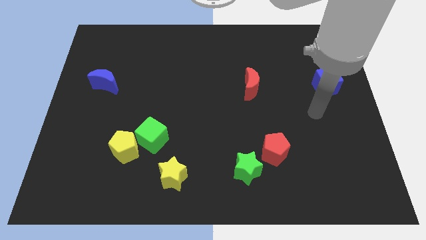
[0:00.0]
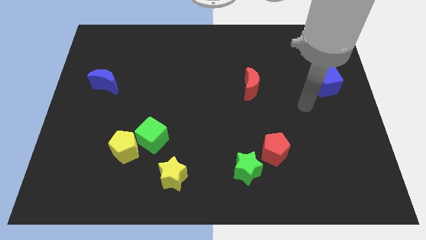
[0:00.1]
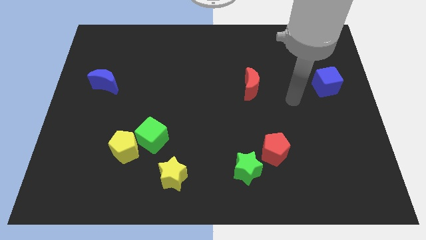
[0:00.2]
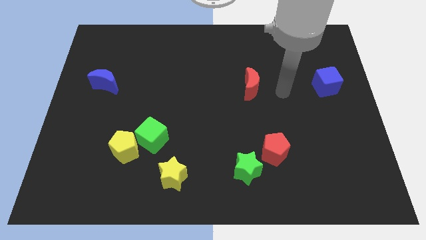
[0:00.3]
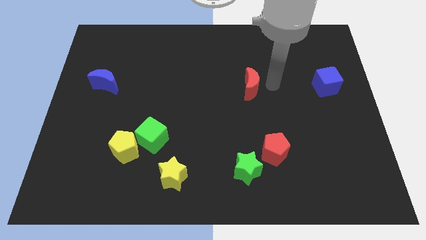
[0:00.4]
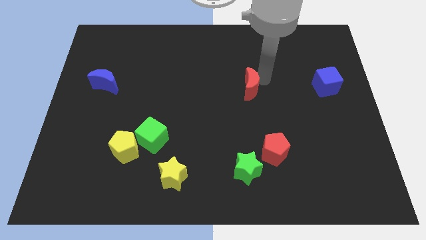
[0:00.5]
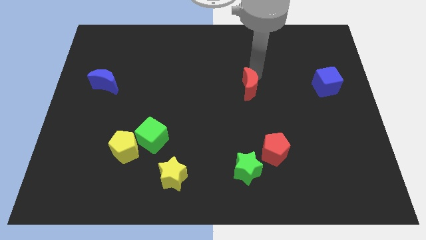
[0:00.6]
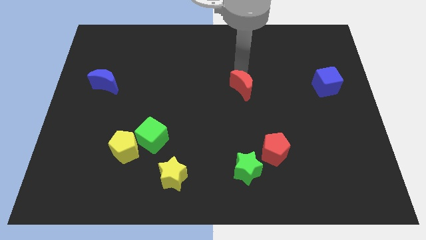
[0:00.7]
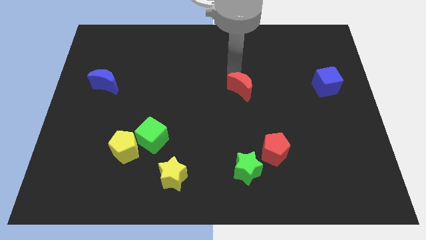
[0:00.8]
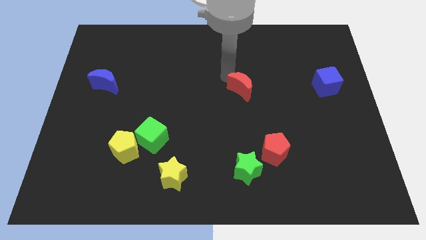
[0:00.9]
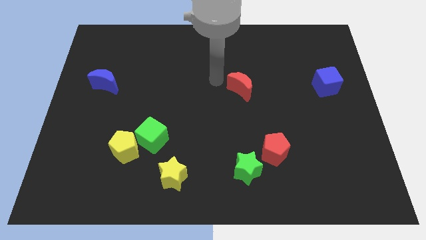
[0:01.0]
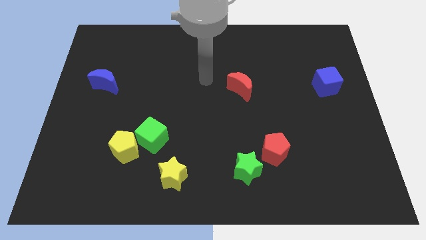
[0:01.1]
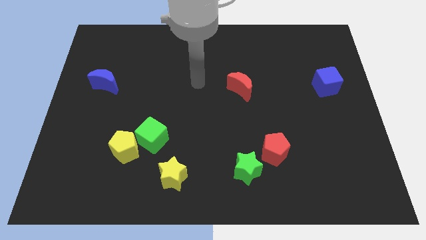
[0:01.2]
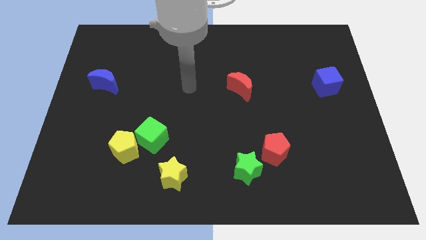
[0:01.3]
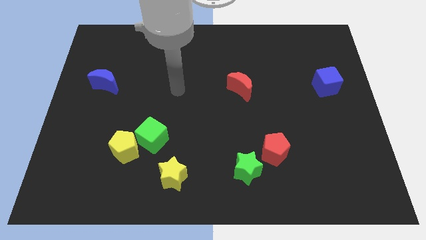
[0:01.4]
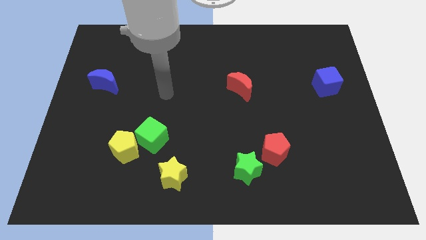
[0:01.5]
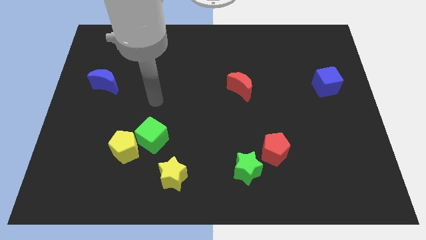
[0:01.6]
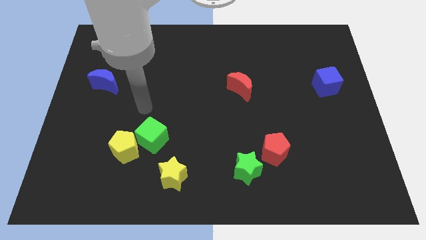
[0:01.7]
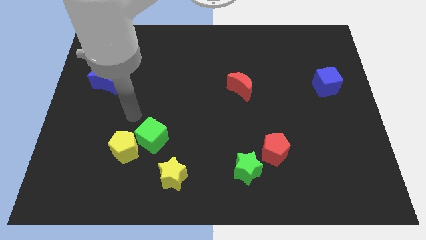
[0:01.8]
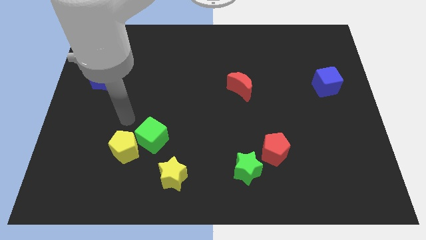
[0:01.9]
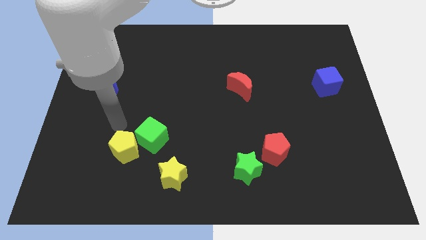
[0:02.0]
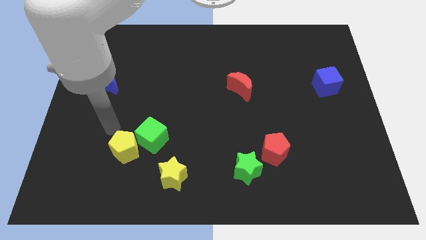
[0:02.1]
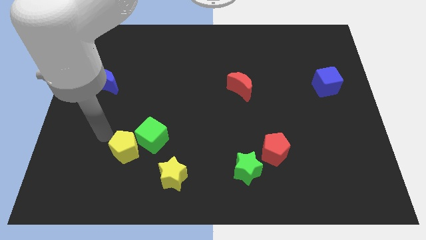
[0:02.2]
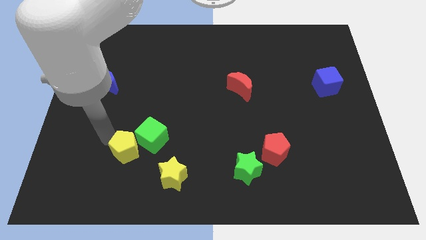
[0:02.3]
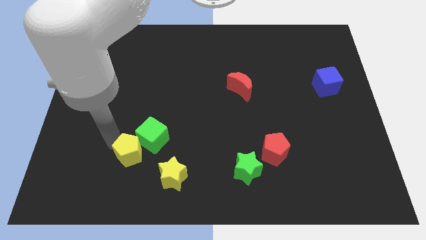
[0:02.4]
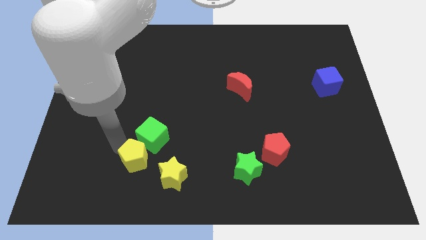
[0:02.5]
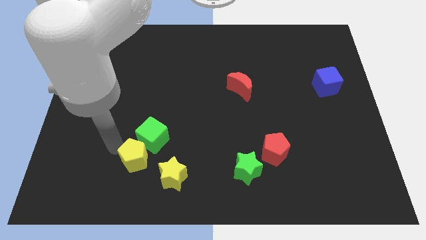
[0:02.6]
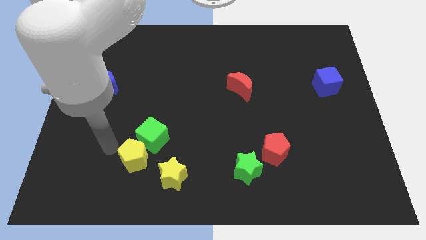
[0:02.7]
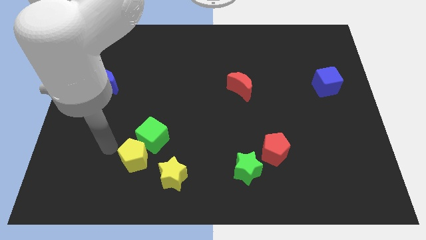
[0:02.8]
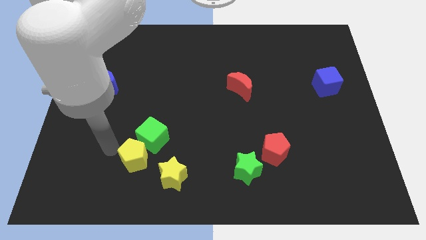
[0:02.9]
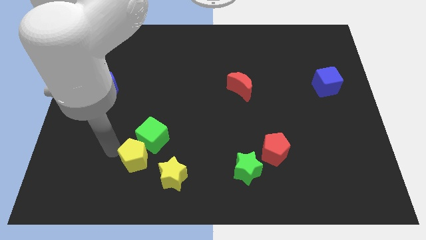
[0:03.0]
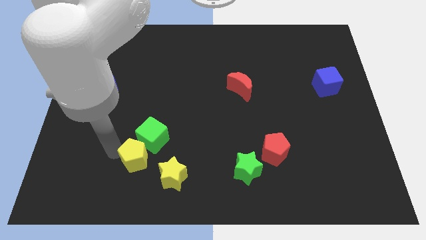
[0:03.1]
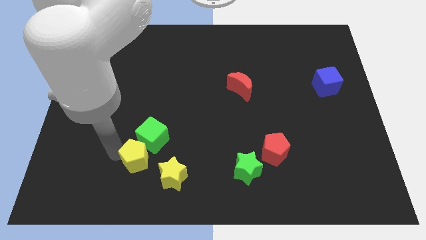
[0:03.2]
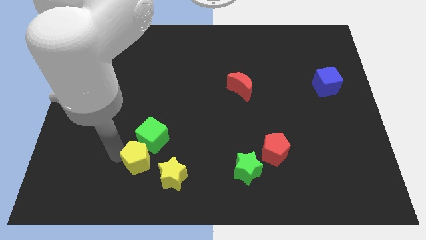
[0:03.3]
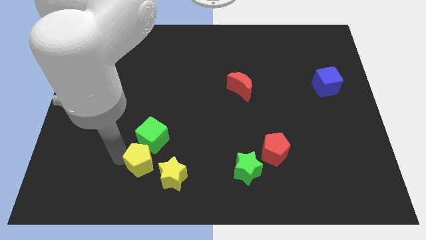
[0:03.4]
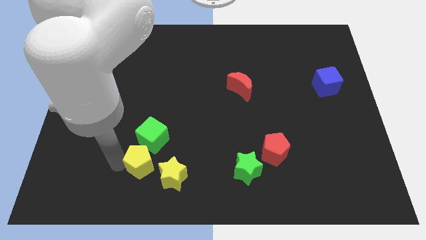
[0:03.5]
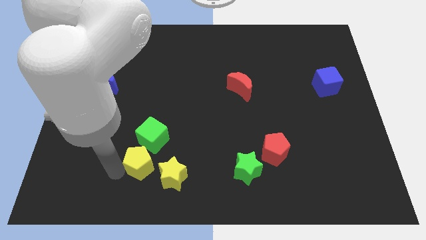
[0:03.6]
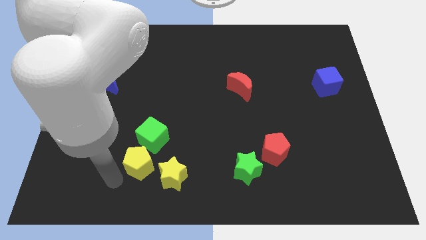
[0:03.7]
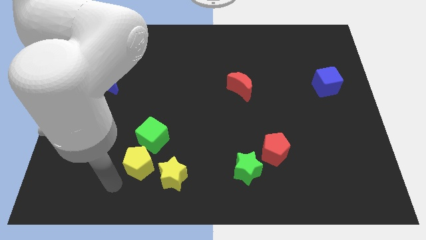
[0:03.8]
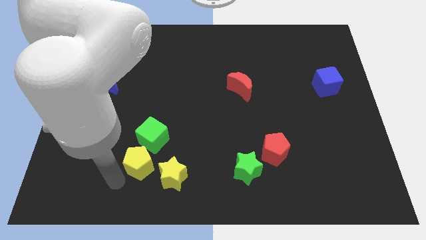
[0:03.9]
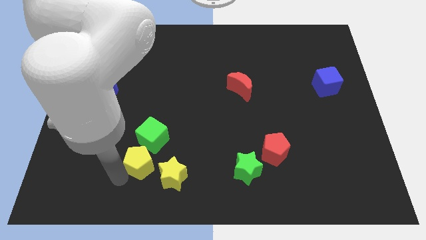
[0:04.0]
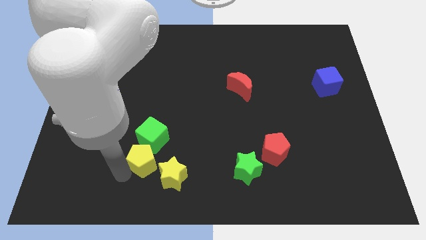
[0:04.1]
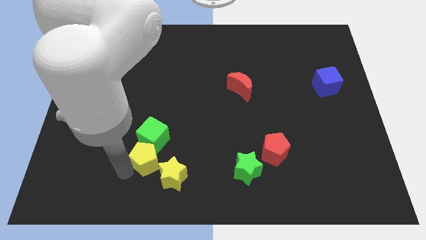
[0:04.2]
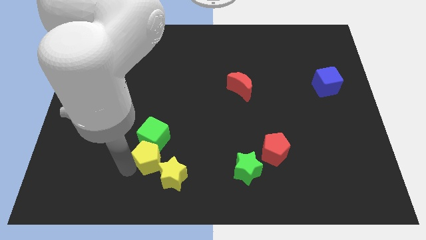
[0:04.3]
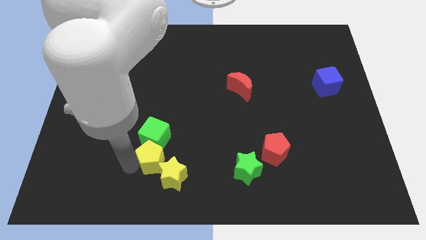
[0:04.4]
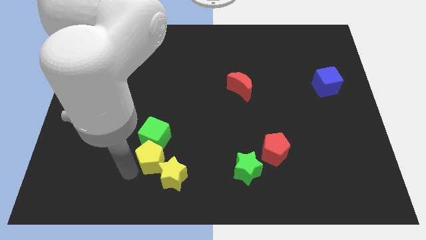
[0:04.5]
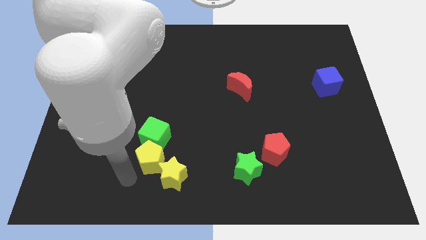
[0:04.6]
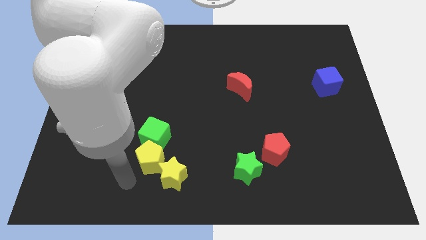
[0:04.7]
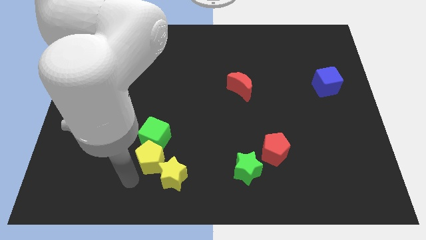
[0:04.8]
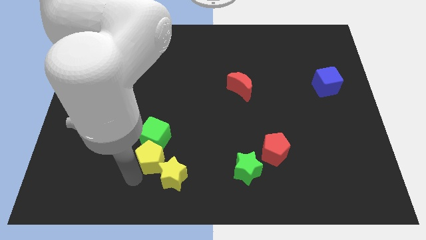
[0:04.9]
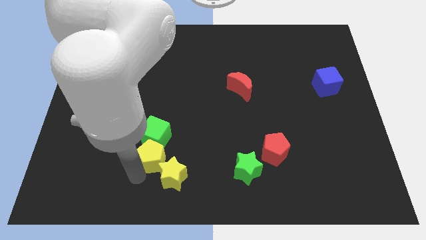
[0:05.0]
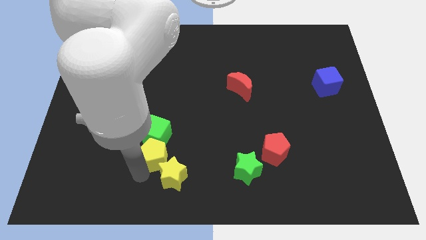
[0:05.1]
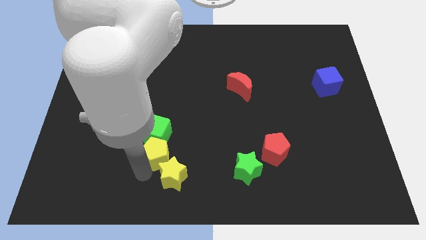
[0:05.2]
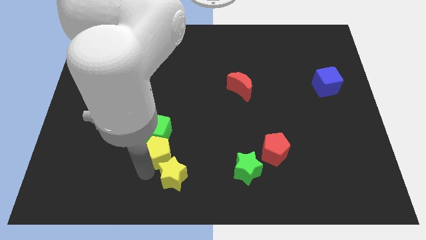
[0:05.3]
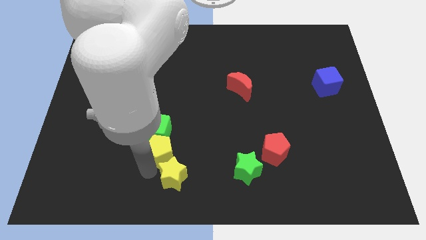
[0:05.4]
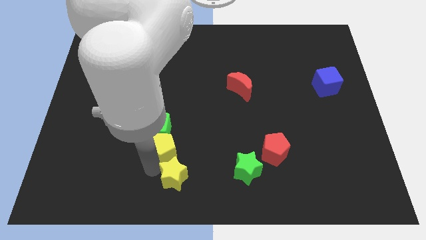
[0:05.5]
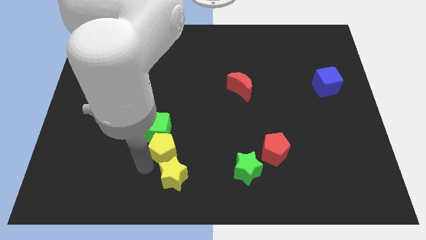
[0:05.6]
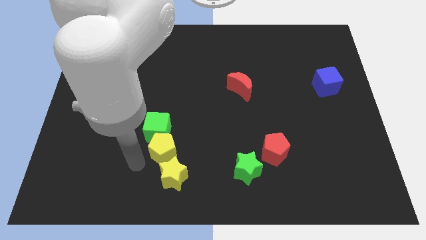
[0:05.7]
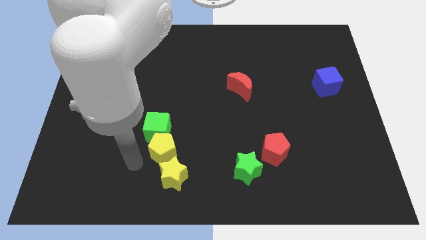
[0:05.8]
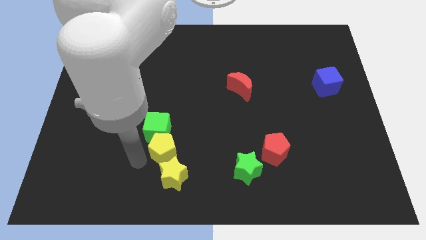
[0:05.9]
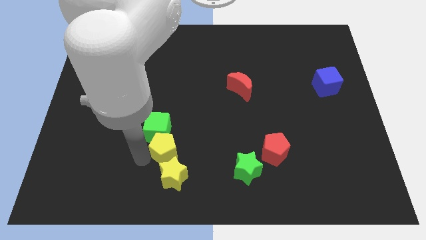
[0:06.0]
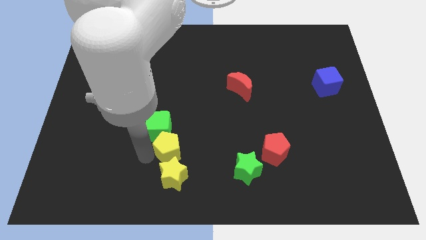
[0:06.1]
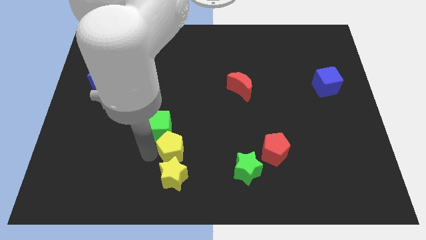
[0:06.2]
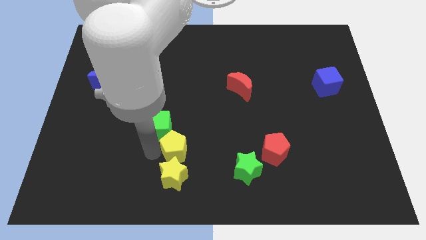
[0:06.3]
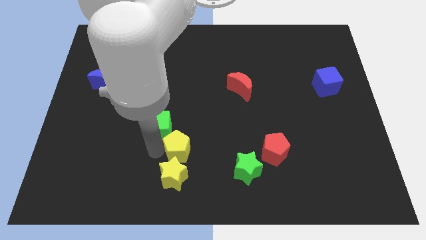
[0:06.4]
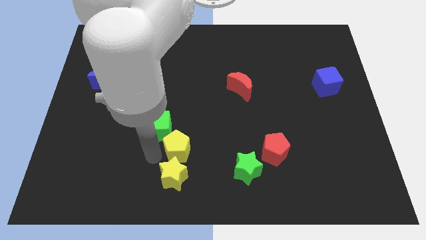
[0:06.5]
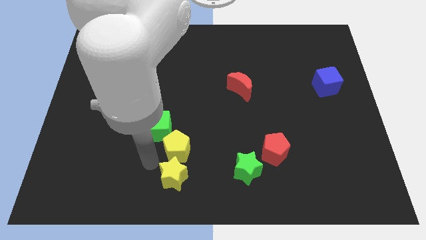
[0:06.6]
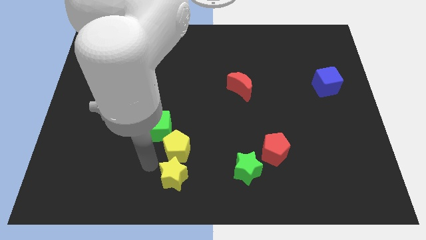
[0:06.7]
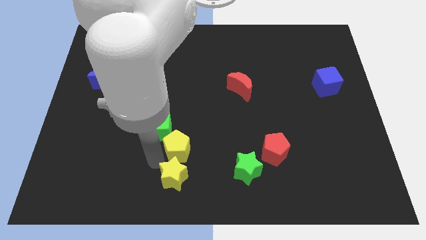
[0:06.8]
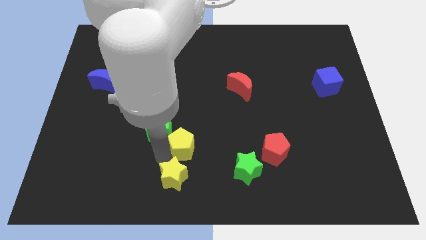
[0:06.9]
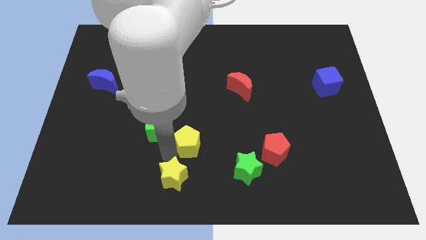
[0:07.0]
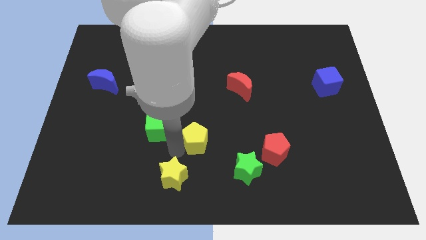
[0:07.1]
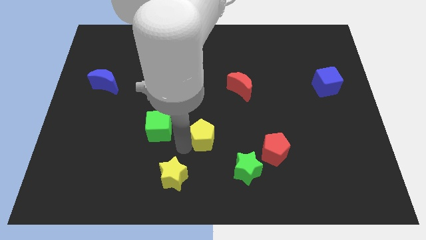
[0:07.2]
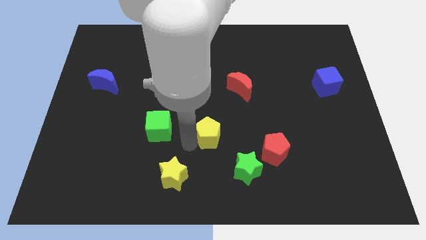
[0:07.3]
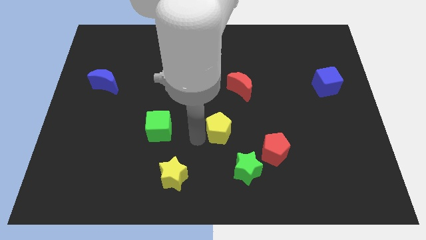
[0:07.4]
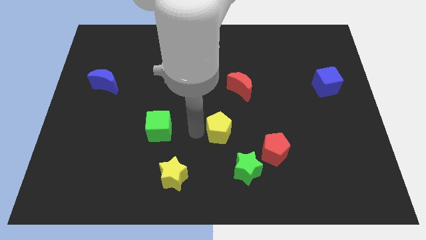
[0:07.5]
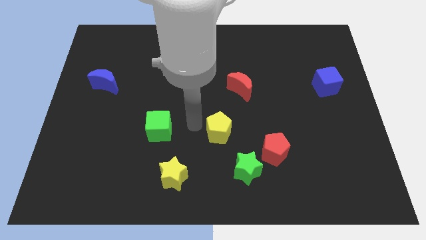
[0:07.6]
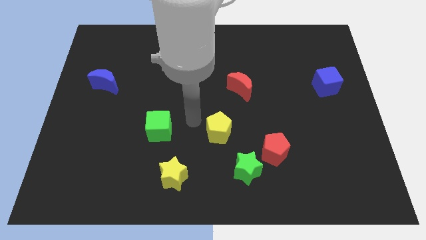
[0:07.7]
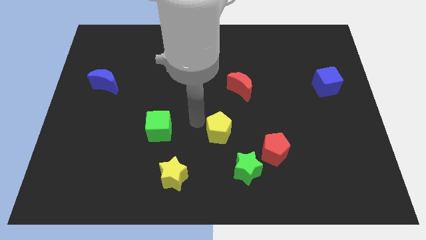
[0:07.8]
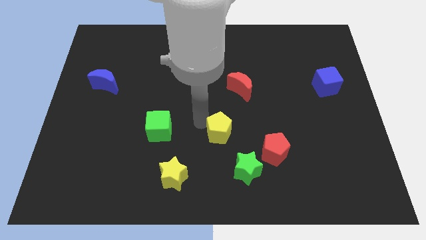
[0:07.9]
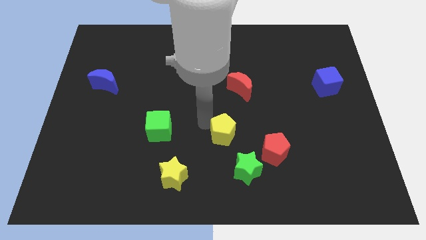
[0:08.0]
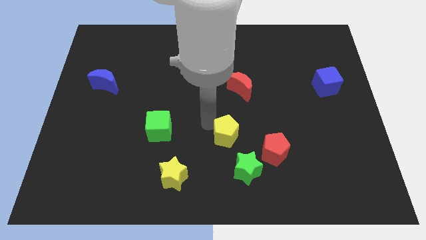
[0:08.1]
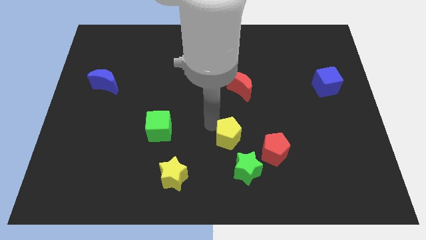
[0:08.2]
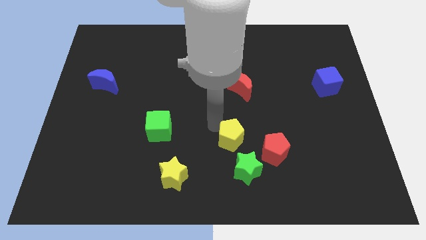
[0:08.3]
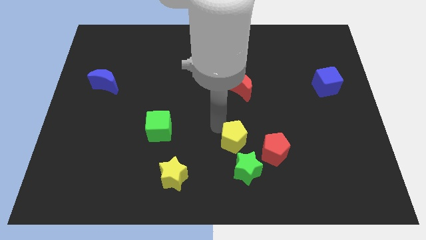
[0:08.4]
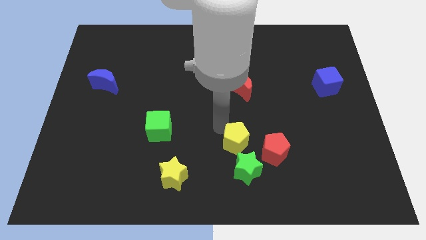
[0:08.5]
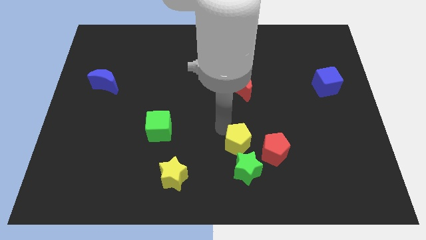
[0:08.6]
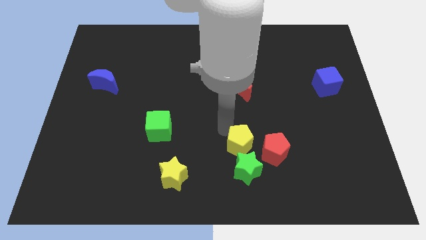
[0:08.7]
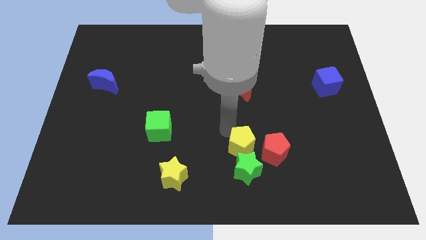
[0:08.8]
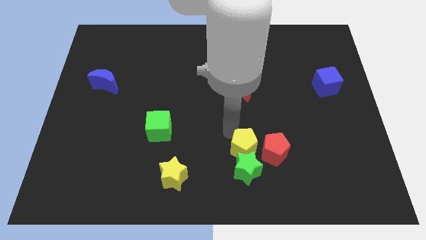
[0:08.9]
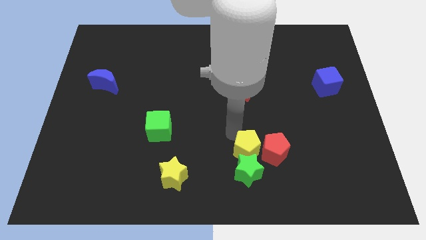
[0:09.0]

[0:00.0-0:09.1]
slide the yellow pentagon next to the red pentagon
